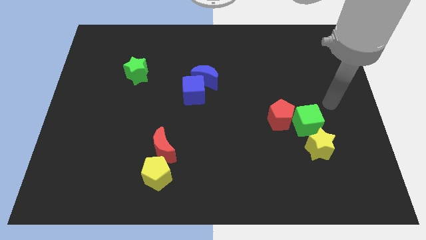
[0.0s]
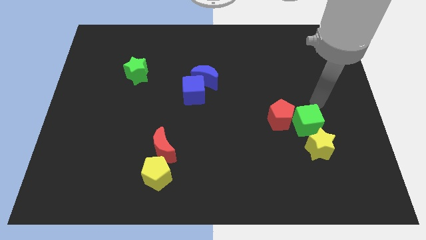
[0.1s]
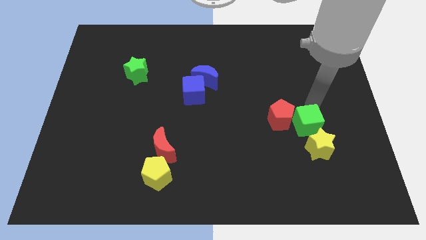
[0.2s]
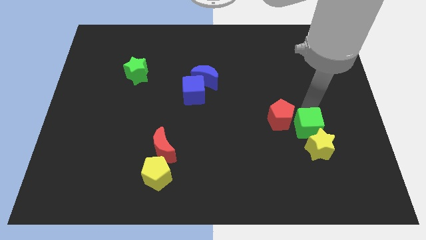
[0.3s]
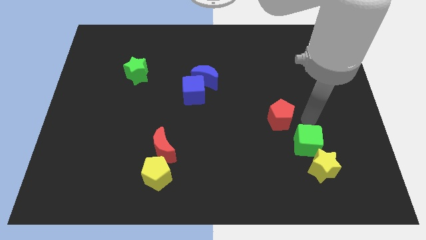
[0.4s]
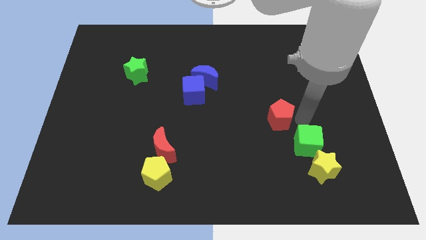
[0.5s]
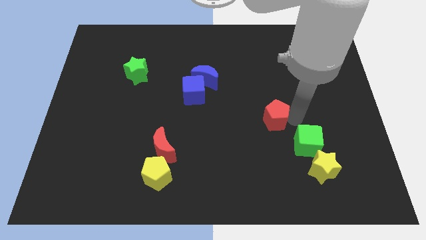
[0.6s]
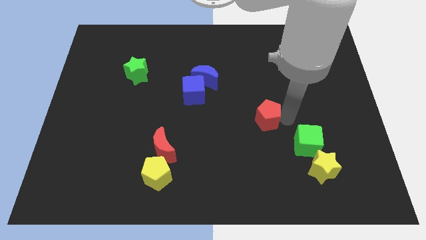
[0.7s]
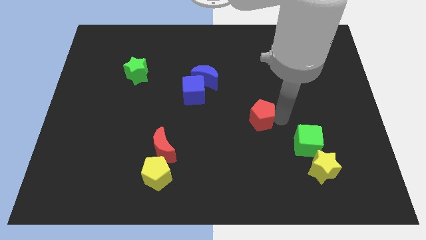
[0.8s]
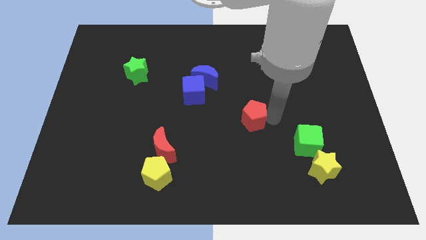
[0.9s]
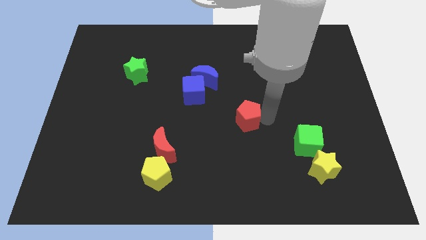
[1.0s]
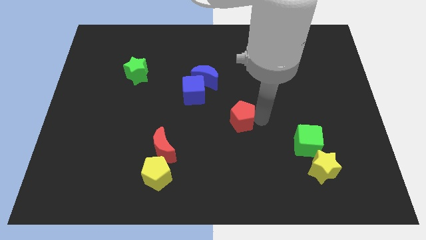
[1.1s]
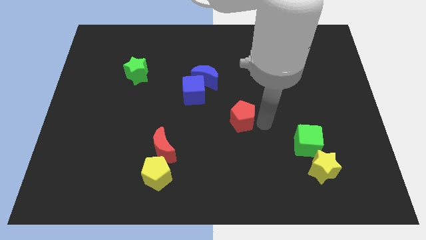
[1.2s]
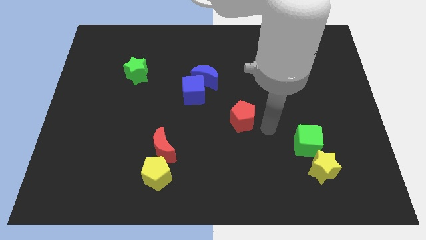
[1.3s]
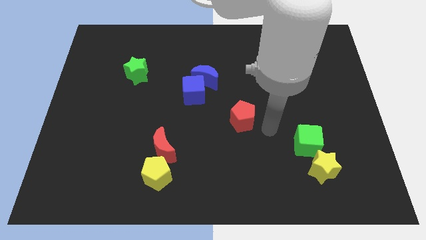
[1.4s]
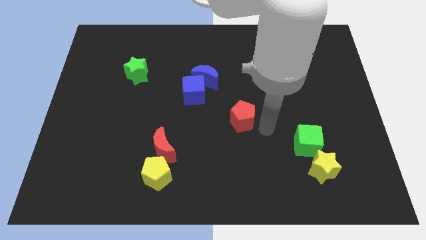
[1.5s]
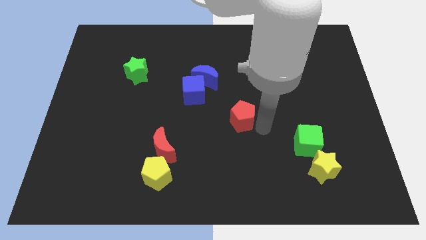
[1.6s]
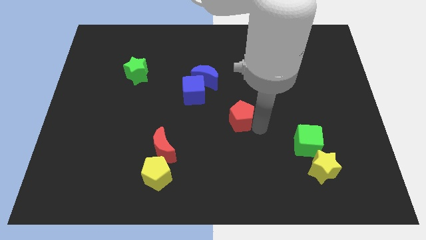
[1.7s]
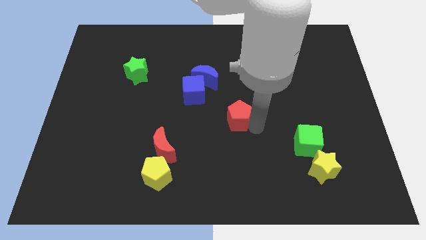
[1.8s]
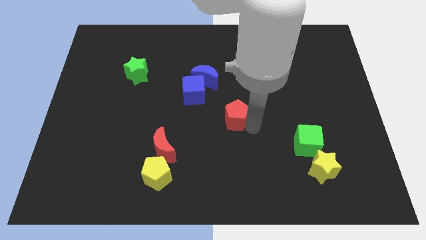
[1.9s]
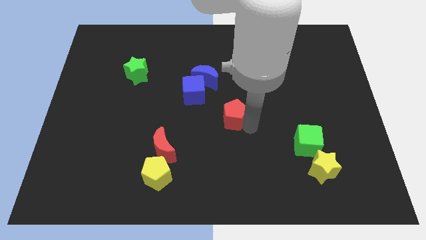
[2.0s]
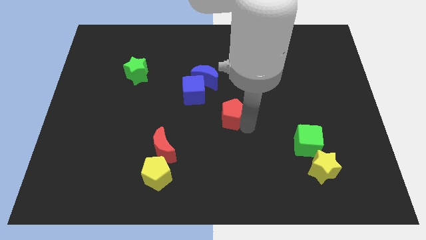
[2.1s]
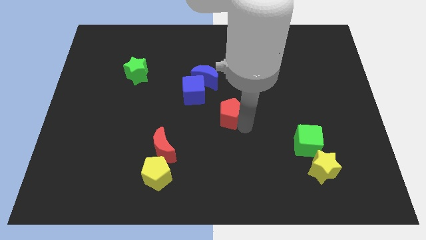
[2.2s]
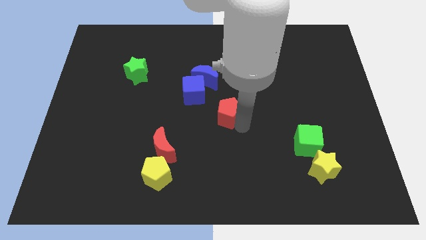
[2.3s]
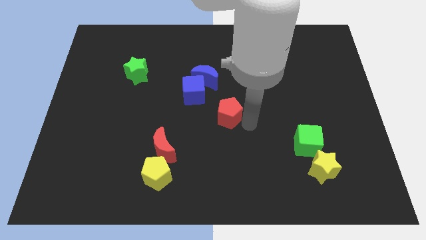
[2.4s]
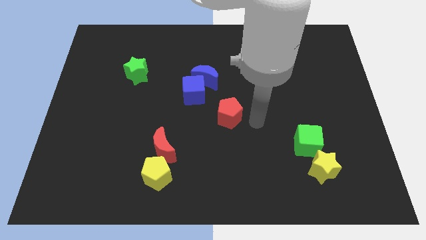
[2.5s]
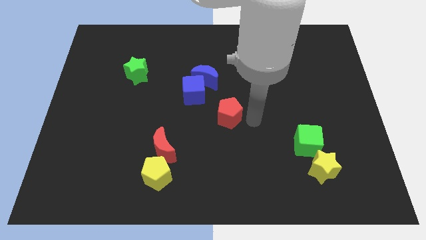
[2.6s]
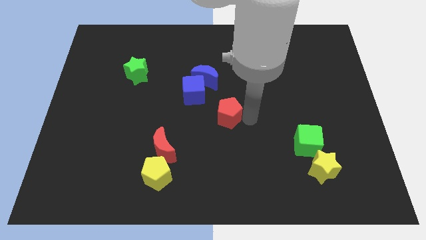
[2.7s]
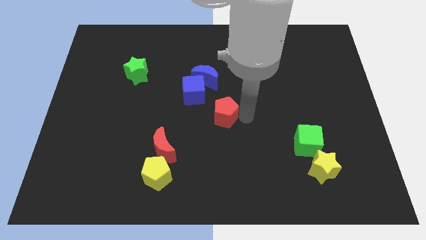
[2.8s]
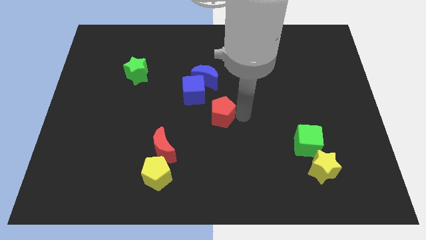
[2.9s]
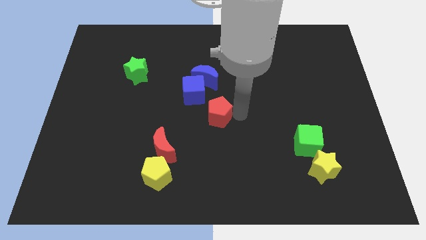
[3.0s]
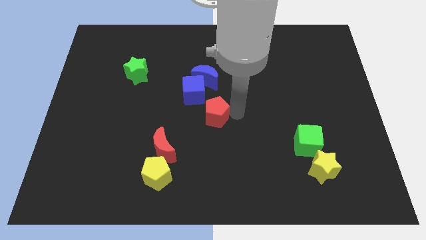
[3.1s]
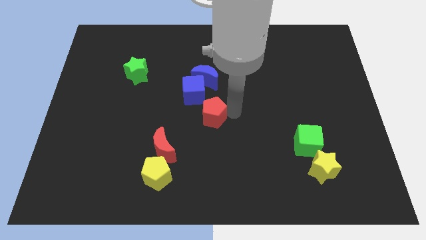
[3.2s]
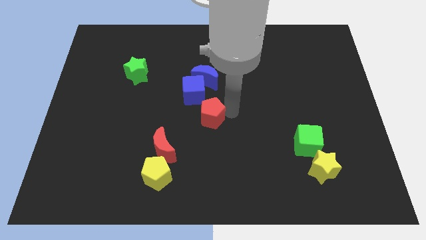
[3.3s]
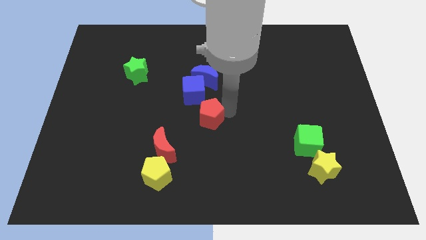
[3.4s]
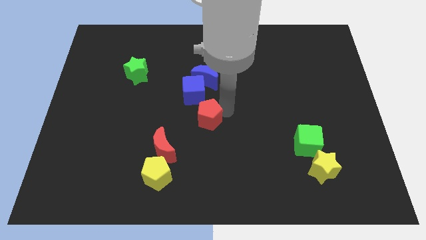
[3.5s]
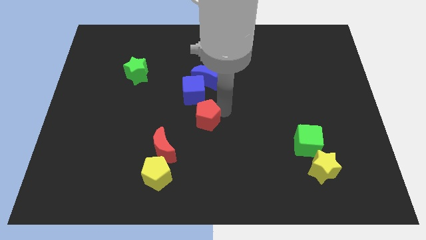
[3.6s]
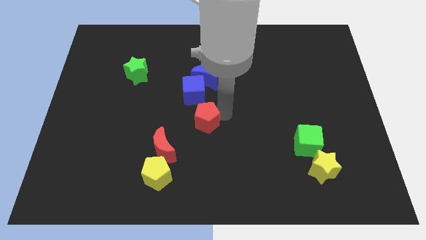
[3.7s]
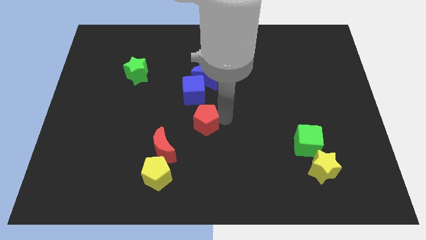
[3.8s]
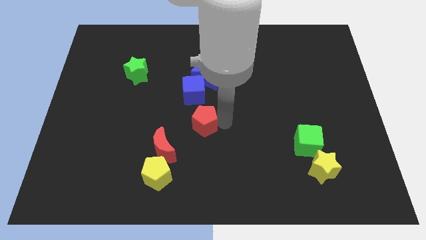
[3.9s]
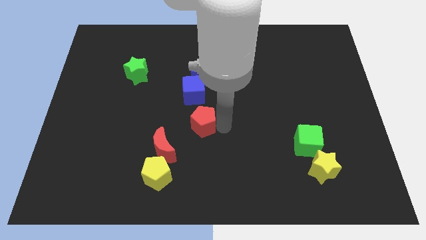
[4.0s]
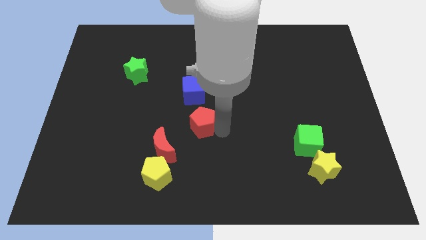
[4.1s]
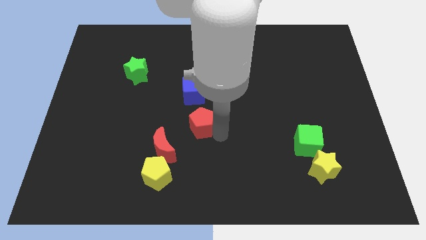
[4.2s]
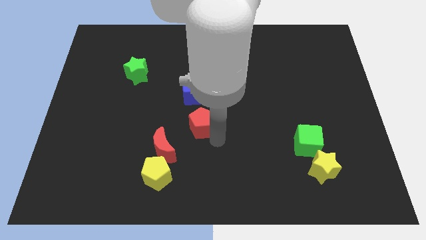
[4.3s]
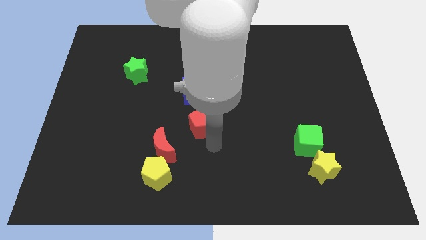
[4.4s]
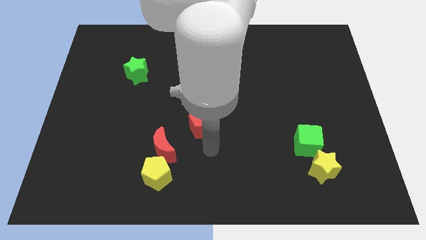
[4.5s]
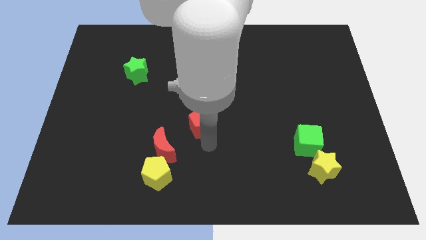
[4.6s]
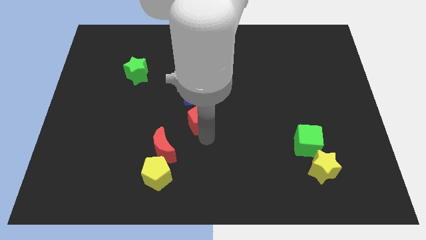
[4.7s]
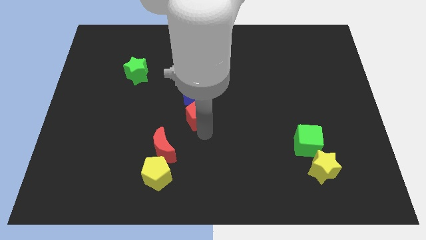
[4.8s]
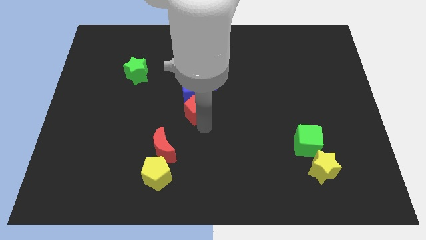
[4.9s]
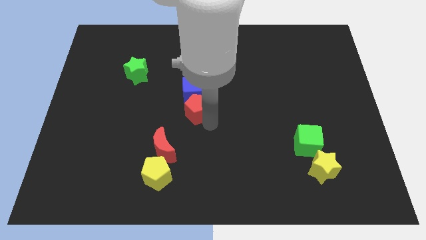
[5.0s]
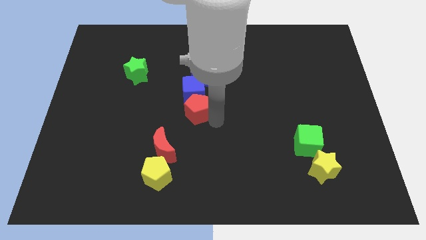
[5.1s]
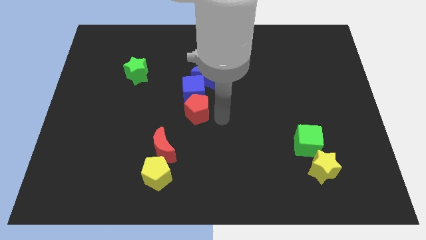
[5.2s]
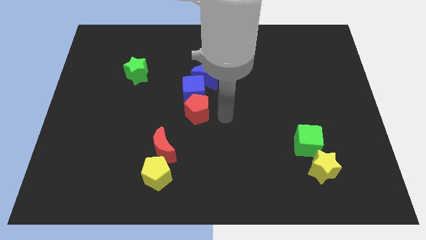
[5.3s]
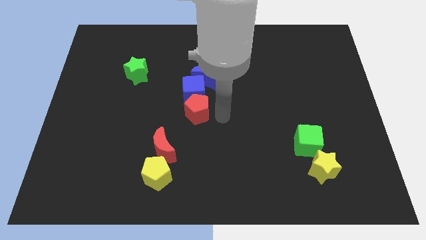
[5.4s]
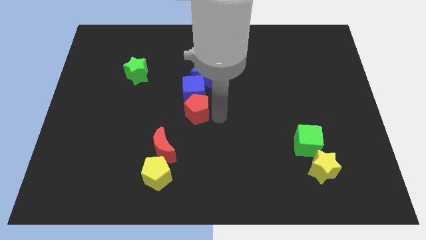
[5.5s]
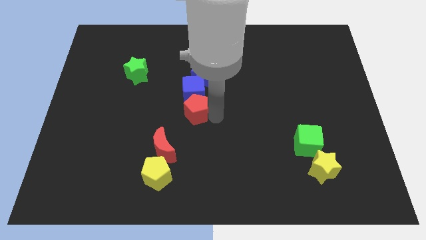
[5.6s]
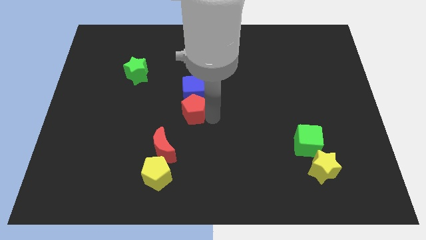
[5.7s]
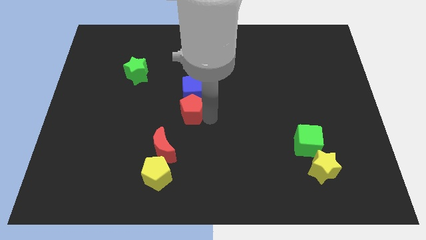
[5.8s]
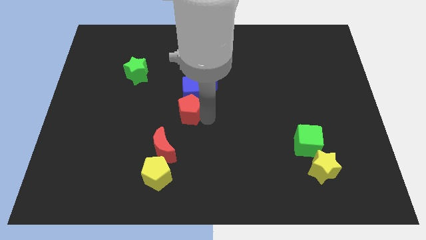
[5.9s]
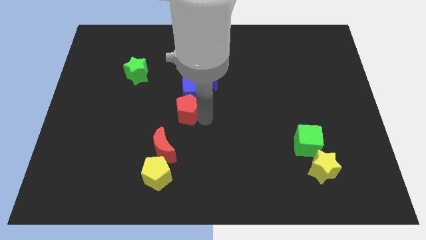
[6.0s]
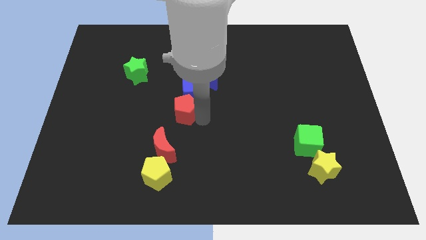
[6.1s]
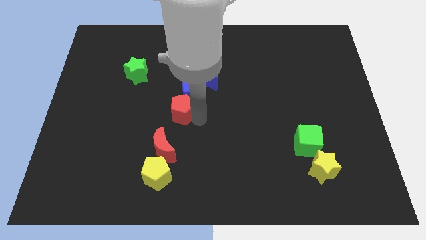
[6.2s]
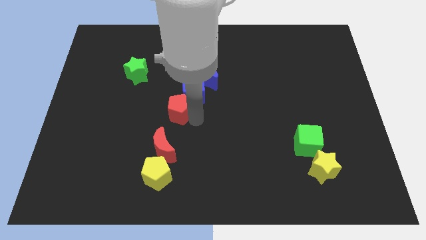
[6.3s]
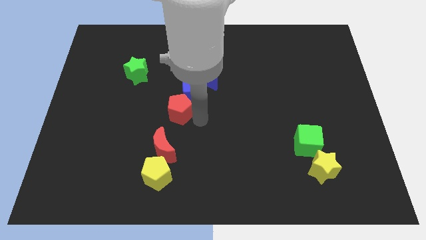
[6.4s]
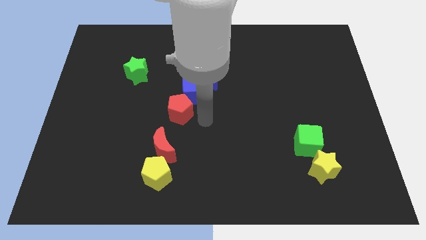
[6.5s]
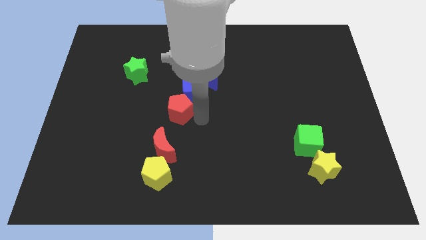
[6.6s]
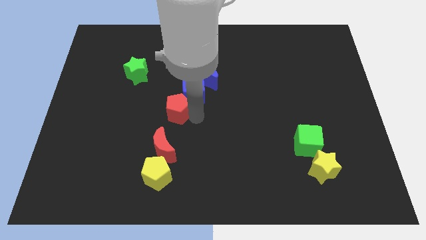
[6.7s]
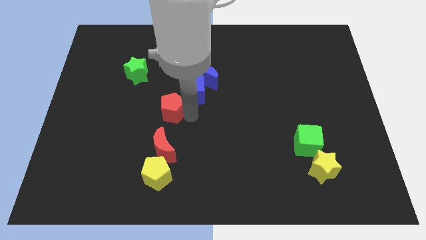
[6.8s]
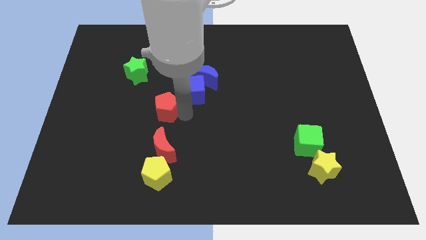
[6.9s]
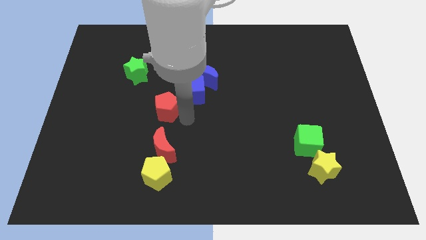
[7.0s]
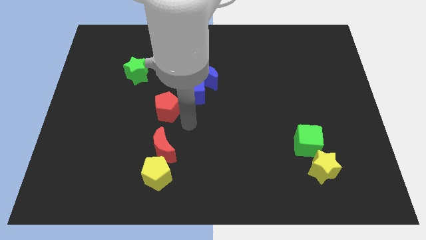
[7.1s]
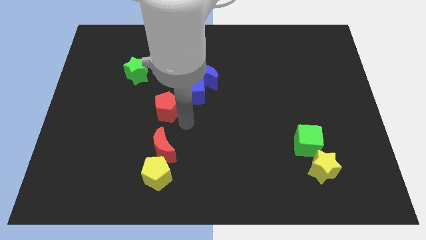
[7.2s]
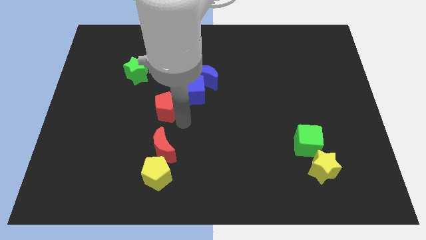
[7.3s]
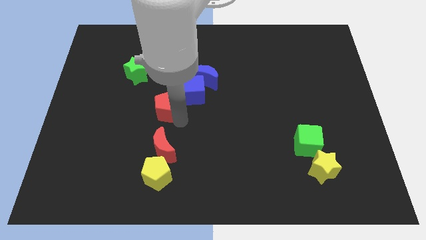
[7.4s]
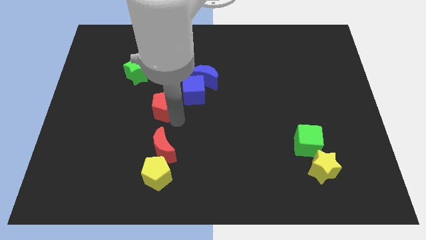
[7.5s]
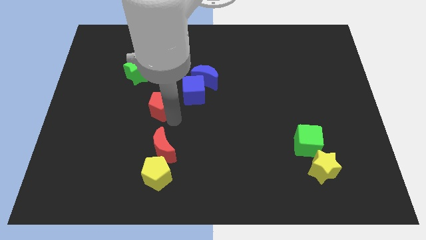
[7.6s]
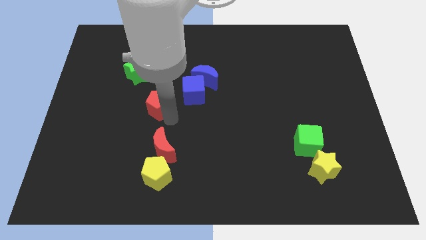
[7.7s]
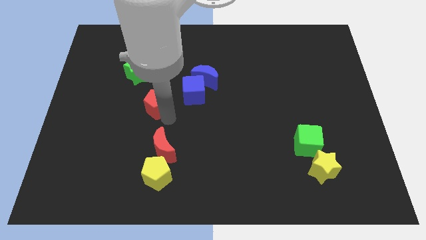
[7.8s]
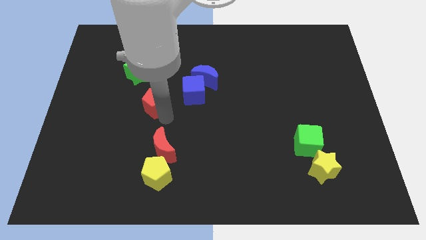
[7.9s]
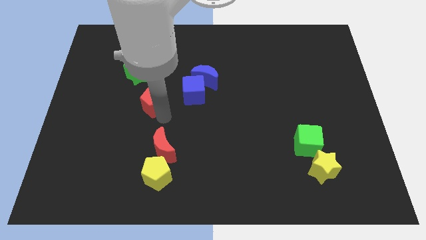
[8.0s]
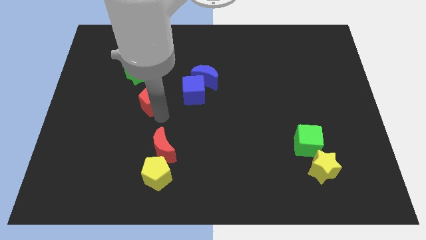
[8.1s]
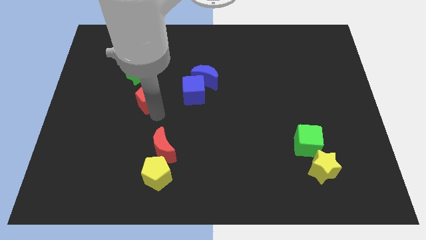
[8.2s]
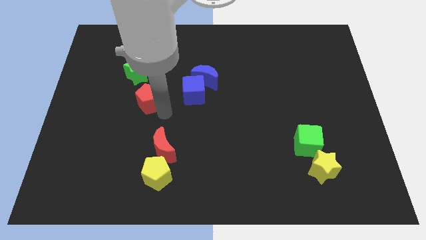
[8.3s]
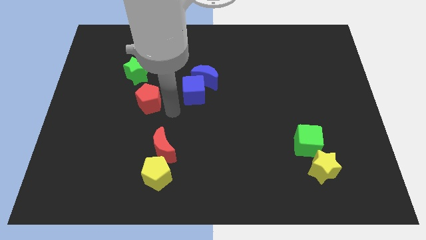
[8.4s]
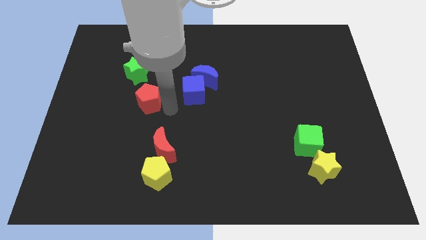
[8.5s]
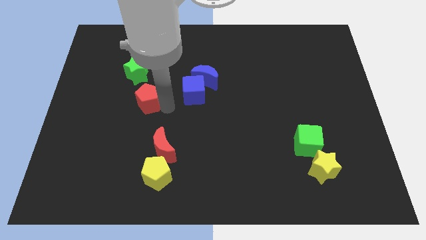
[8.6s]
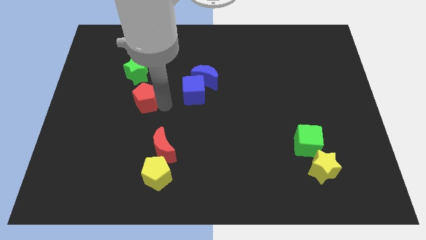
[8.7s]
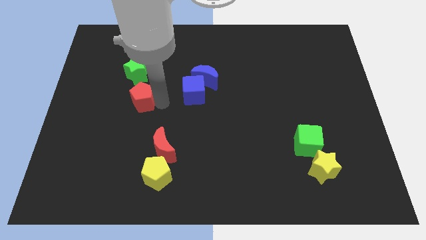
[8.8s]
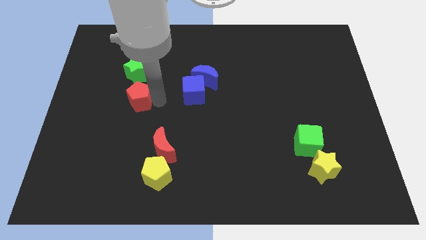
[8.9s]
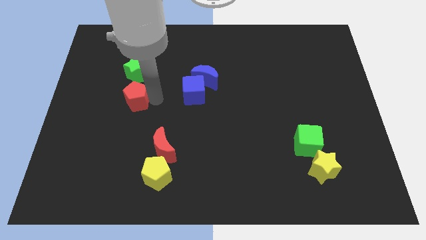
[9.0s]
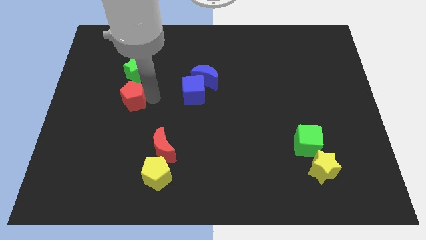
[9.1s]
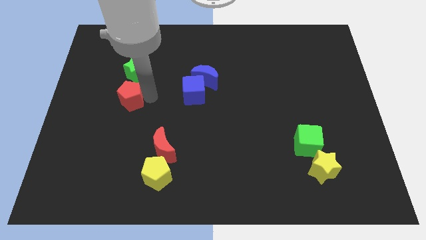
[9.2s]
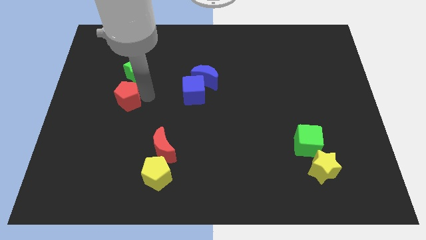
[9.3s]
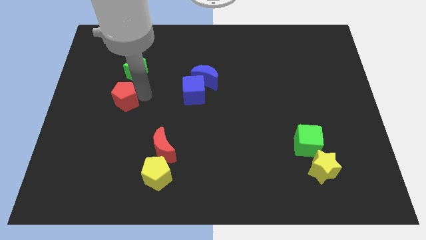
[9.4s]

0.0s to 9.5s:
push the red pentagon to the bottom left side of the green star
